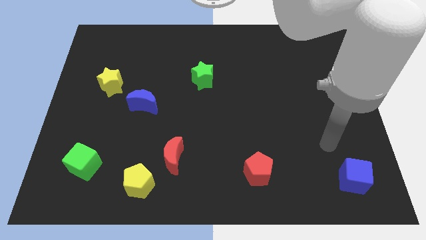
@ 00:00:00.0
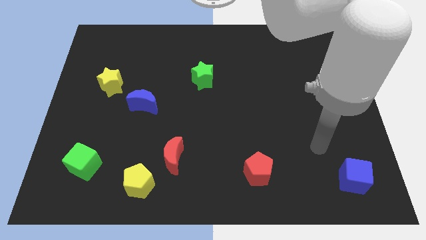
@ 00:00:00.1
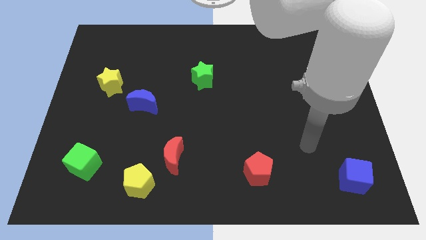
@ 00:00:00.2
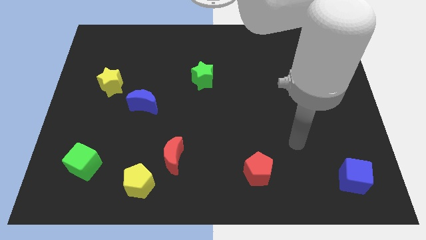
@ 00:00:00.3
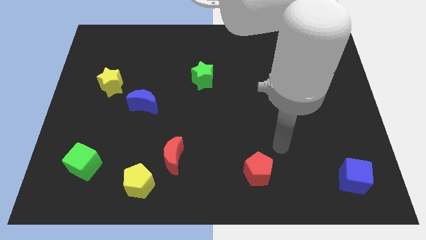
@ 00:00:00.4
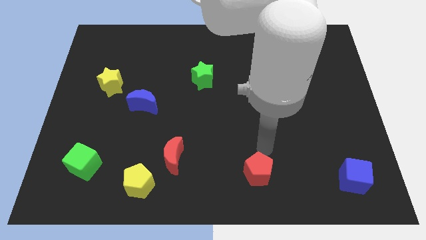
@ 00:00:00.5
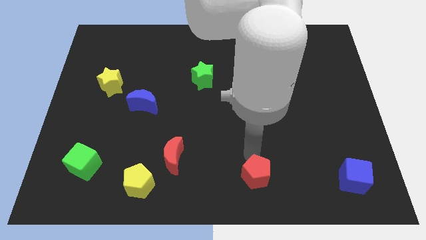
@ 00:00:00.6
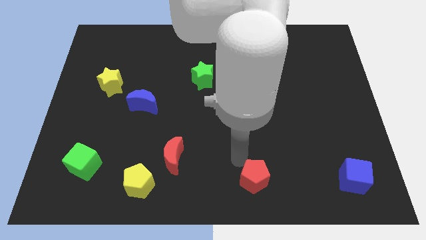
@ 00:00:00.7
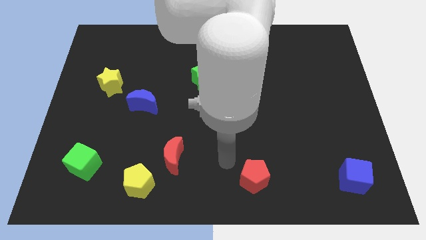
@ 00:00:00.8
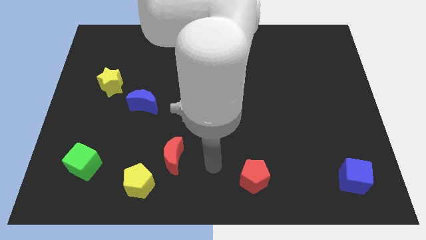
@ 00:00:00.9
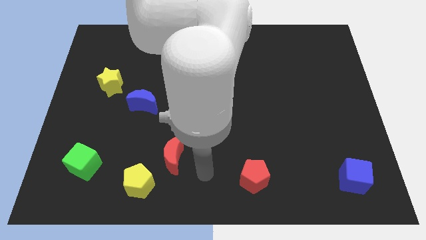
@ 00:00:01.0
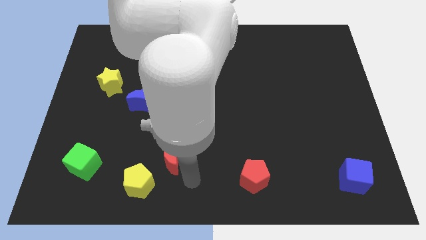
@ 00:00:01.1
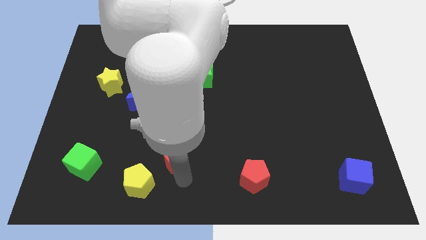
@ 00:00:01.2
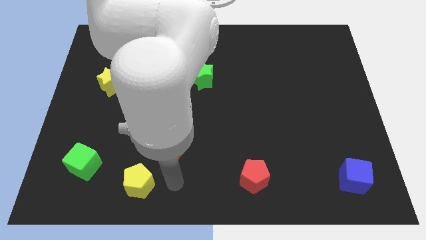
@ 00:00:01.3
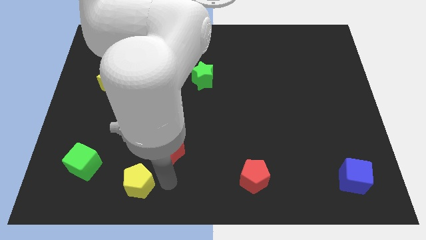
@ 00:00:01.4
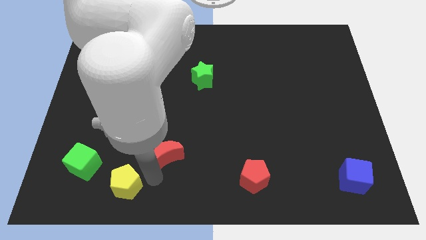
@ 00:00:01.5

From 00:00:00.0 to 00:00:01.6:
move the red moon away from the yellow pentagon

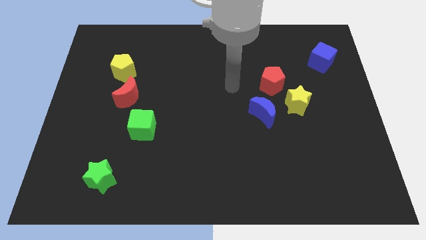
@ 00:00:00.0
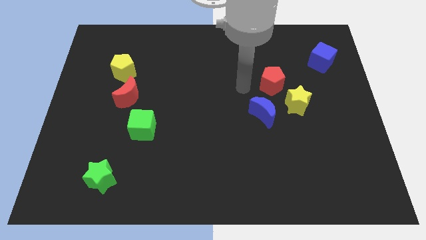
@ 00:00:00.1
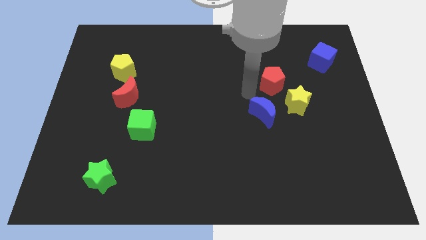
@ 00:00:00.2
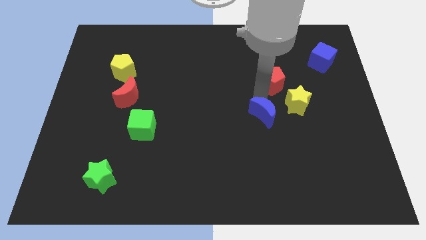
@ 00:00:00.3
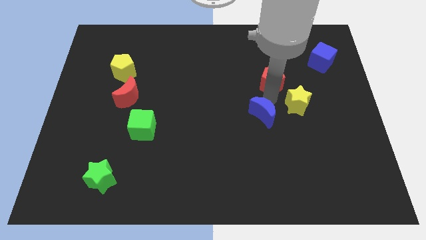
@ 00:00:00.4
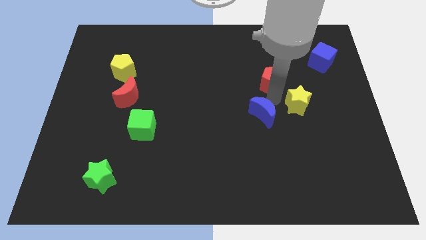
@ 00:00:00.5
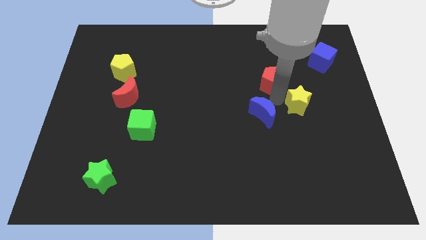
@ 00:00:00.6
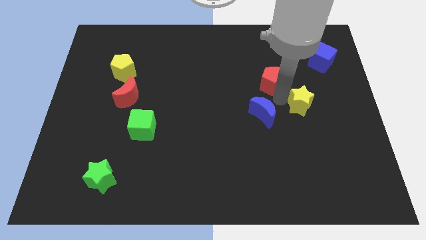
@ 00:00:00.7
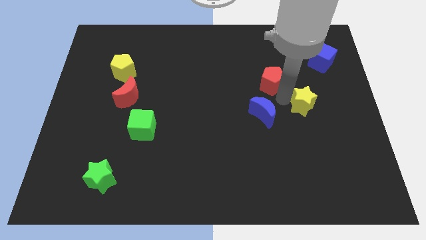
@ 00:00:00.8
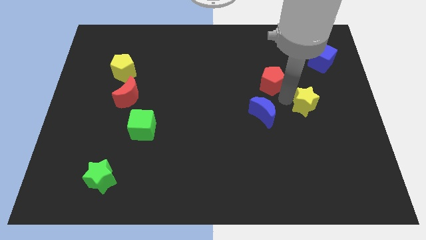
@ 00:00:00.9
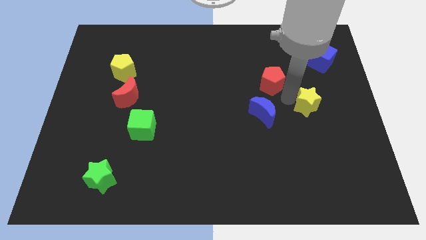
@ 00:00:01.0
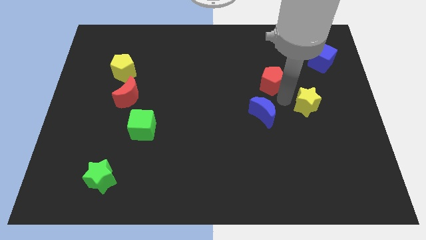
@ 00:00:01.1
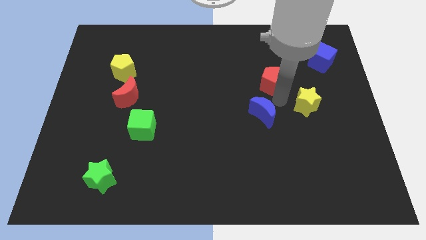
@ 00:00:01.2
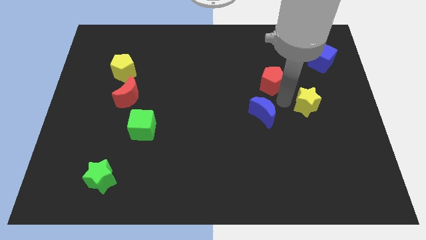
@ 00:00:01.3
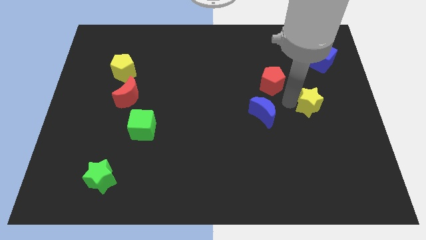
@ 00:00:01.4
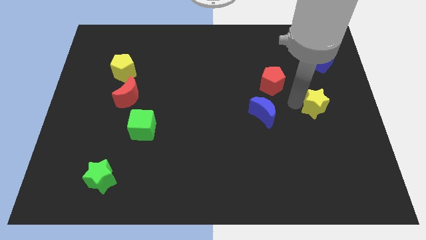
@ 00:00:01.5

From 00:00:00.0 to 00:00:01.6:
separate the yellow star from the red pentagon and blue moon

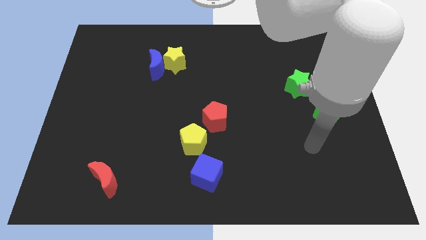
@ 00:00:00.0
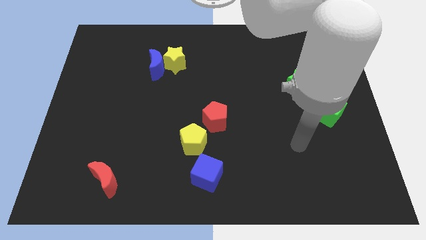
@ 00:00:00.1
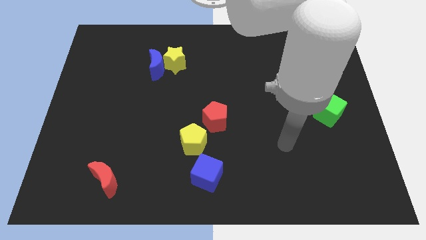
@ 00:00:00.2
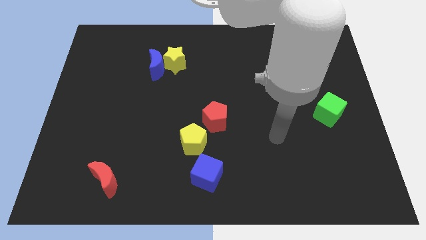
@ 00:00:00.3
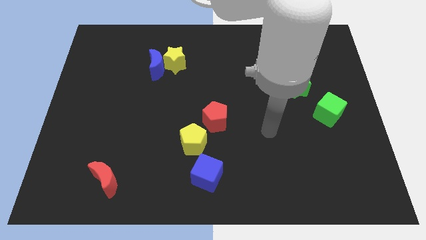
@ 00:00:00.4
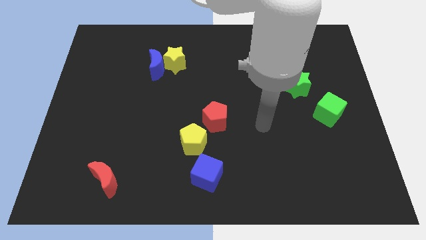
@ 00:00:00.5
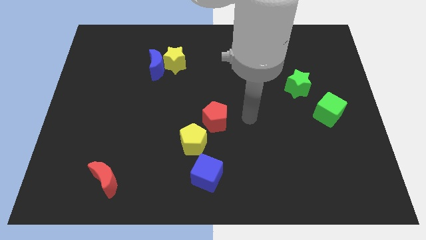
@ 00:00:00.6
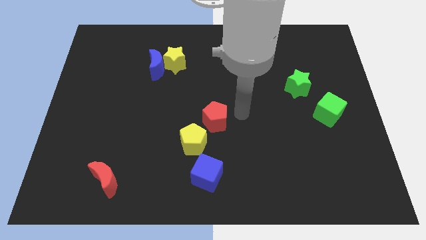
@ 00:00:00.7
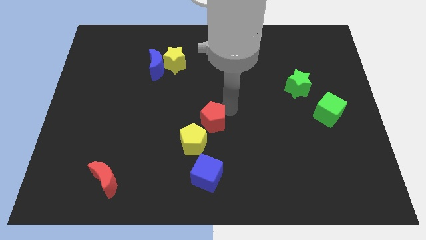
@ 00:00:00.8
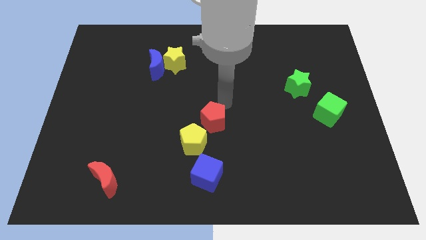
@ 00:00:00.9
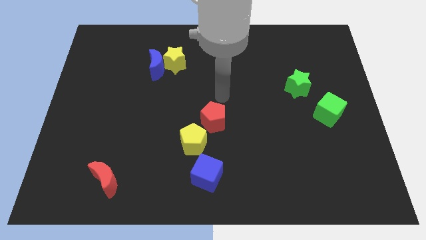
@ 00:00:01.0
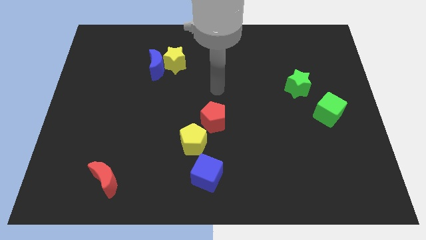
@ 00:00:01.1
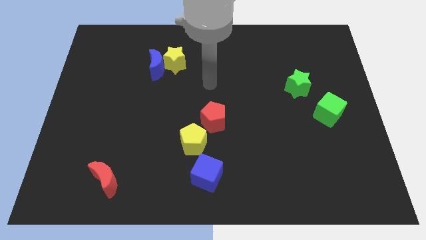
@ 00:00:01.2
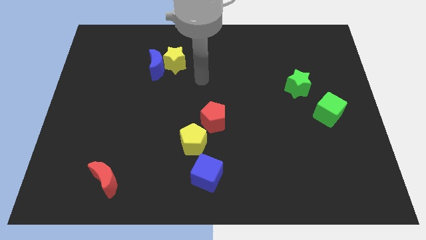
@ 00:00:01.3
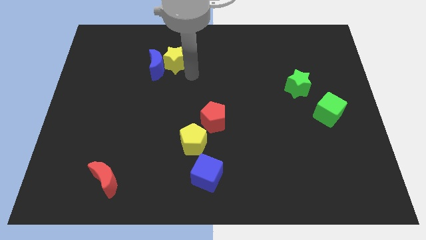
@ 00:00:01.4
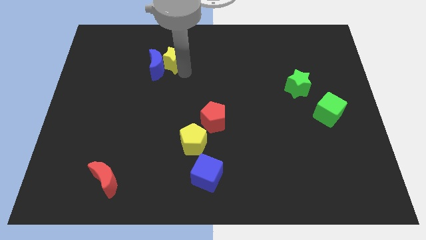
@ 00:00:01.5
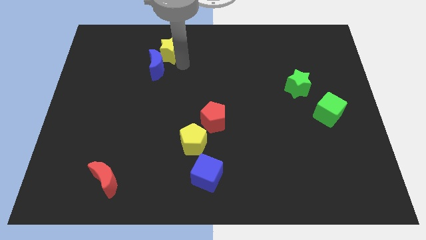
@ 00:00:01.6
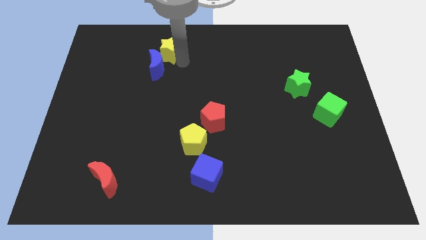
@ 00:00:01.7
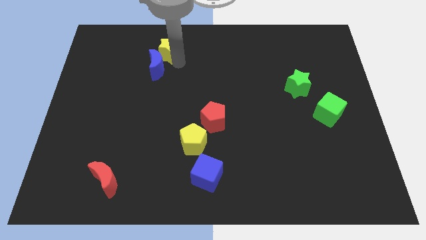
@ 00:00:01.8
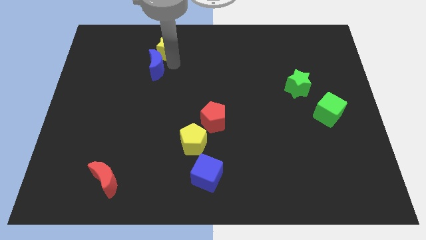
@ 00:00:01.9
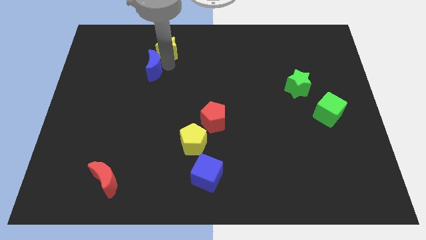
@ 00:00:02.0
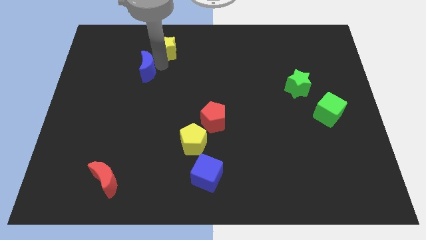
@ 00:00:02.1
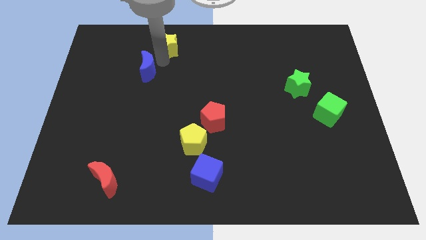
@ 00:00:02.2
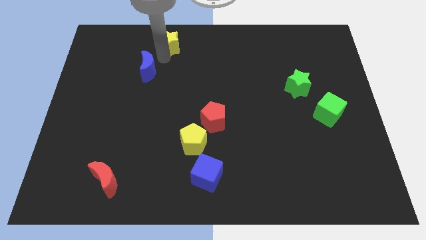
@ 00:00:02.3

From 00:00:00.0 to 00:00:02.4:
separate the blue moon from the yellow star

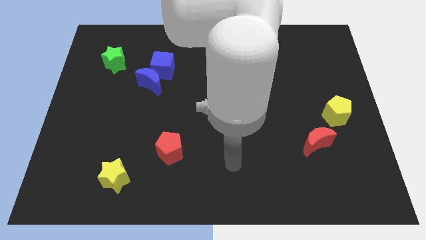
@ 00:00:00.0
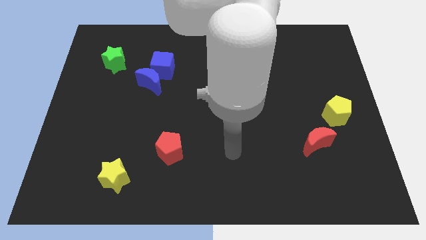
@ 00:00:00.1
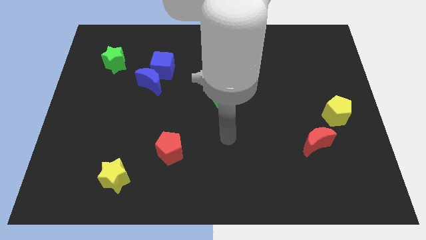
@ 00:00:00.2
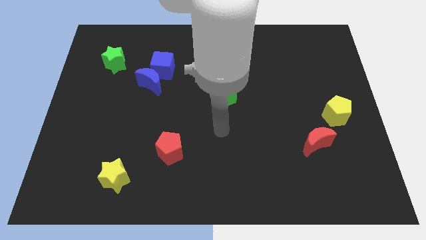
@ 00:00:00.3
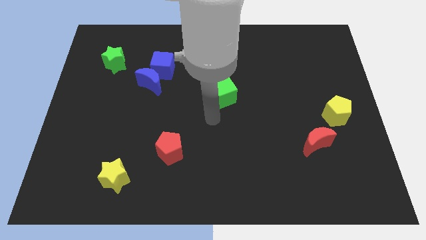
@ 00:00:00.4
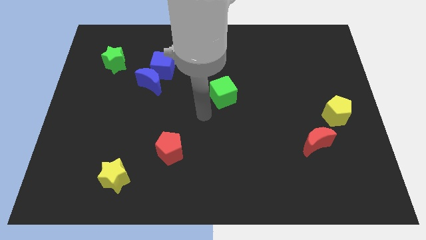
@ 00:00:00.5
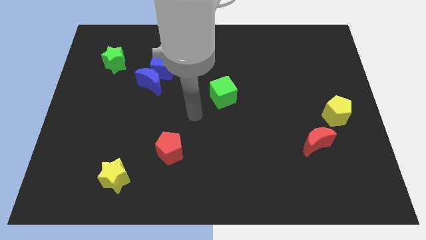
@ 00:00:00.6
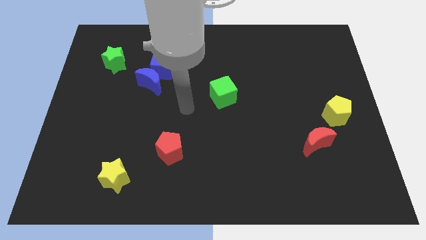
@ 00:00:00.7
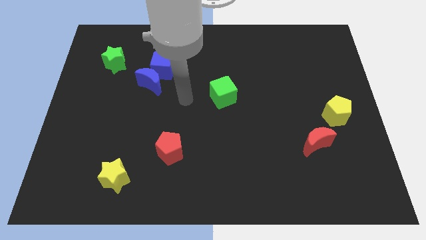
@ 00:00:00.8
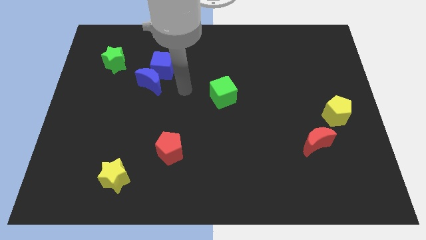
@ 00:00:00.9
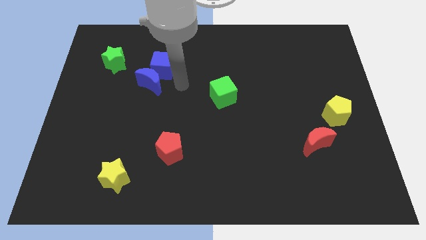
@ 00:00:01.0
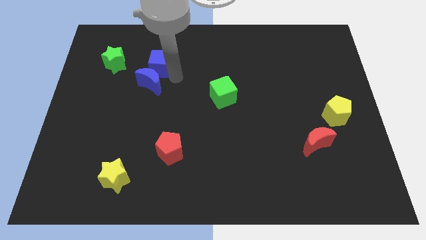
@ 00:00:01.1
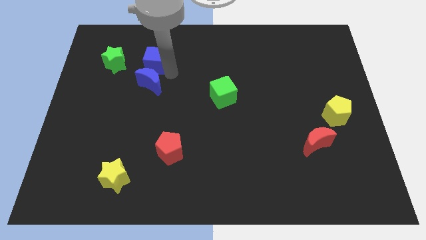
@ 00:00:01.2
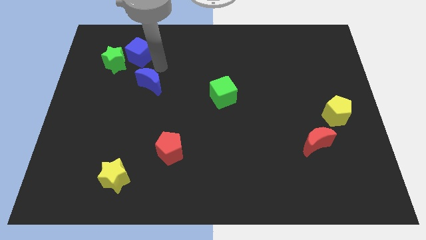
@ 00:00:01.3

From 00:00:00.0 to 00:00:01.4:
pull the blue moon apart from the blue cube

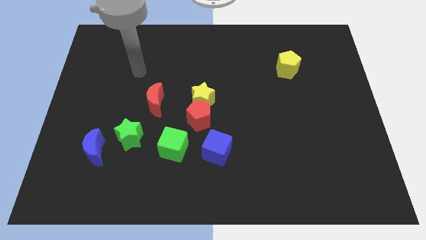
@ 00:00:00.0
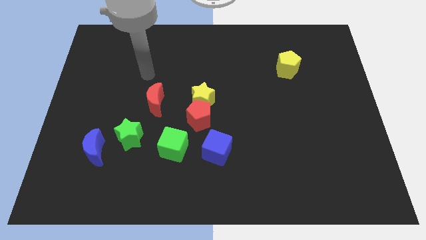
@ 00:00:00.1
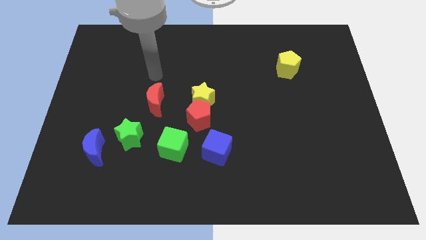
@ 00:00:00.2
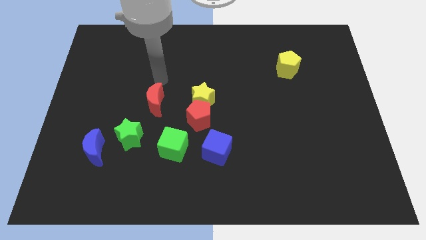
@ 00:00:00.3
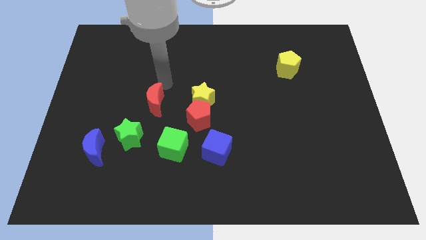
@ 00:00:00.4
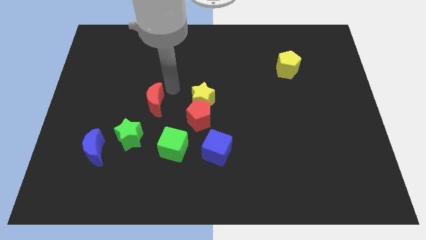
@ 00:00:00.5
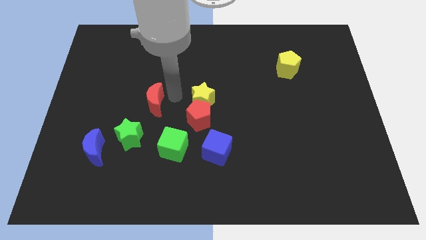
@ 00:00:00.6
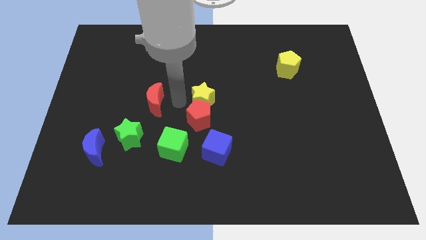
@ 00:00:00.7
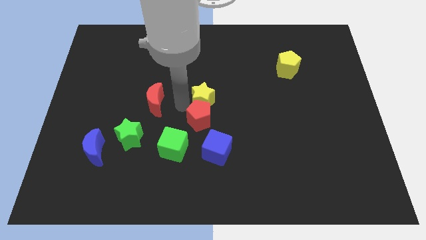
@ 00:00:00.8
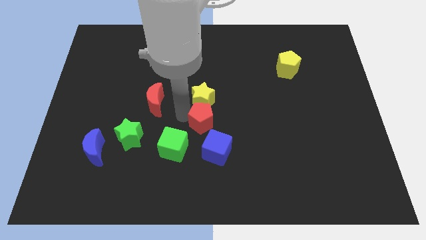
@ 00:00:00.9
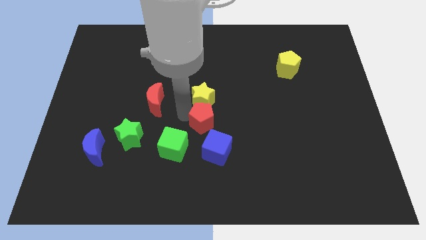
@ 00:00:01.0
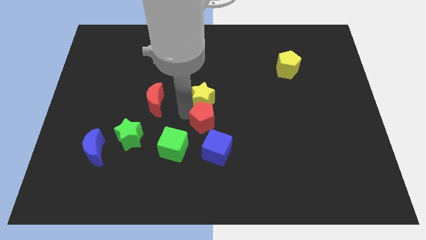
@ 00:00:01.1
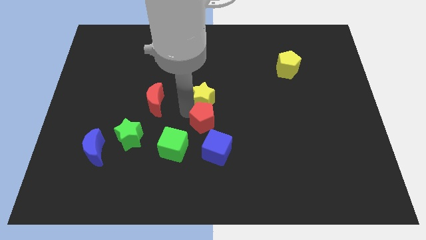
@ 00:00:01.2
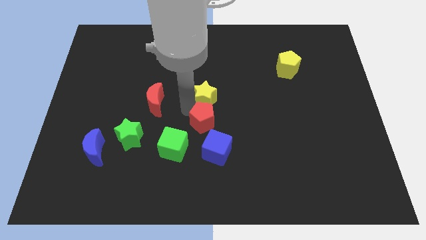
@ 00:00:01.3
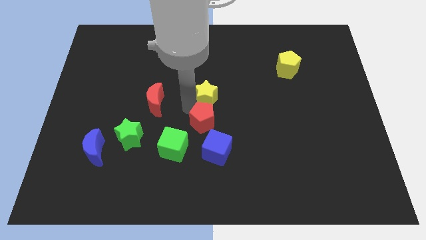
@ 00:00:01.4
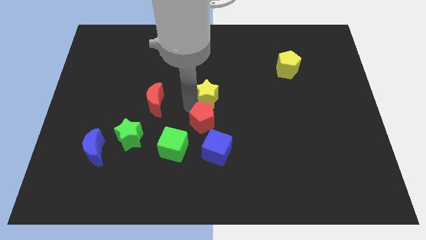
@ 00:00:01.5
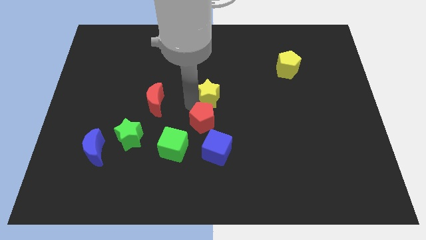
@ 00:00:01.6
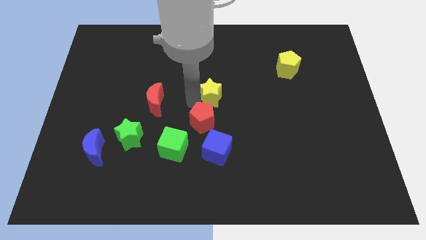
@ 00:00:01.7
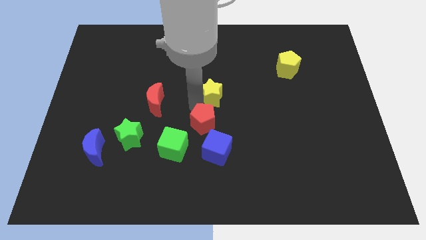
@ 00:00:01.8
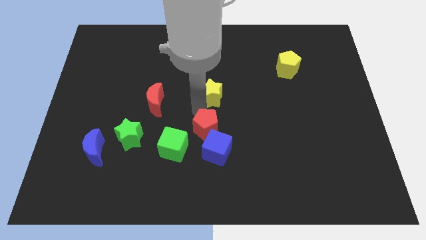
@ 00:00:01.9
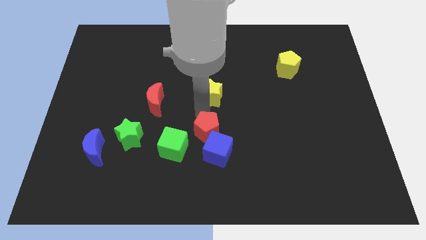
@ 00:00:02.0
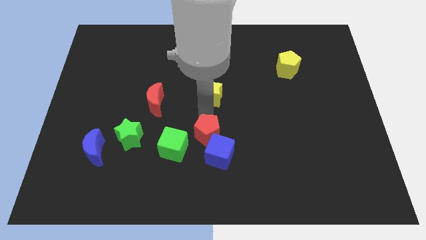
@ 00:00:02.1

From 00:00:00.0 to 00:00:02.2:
pull the yellow star apart from the red pentagon
